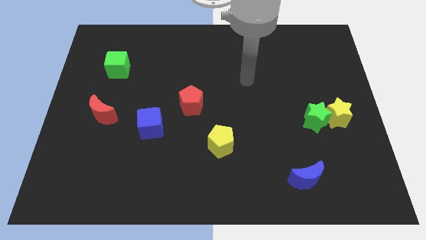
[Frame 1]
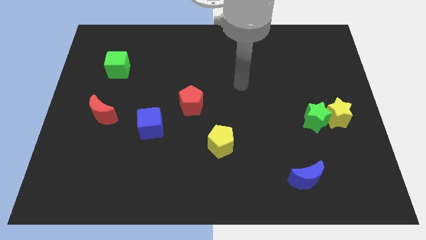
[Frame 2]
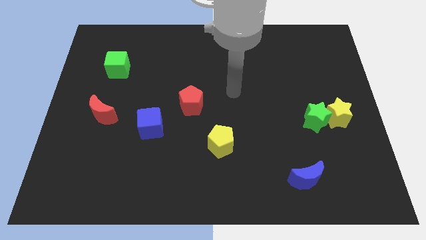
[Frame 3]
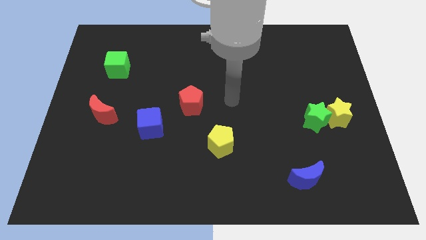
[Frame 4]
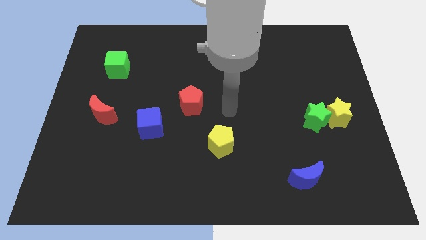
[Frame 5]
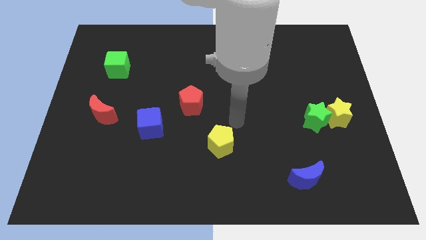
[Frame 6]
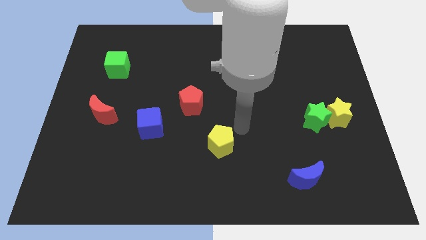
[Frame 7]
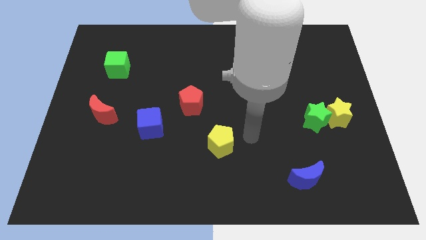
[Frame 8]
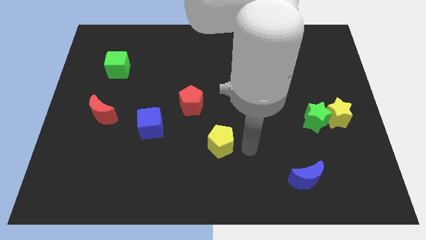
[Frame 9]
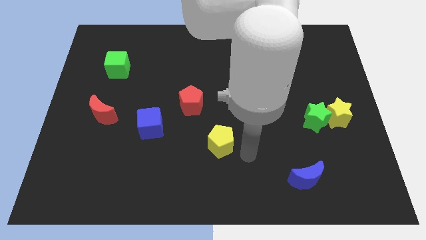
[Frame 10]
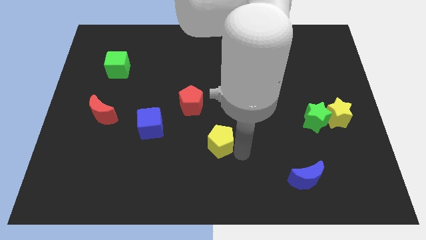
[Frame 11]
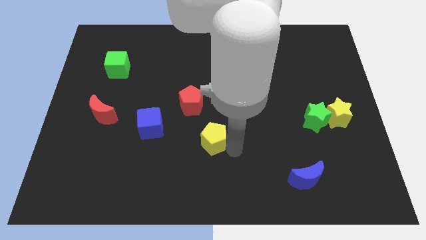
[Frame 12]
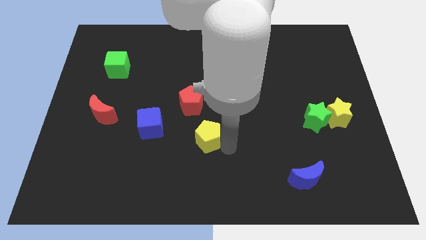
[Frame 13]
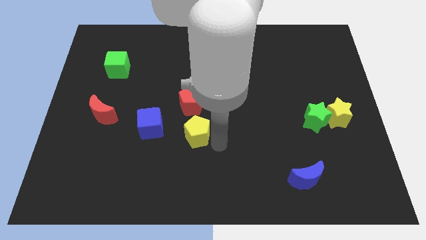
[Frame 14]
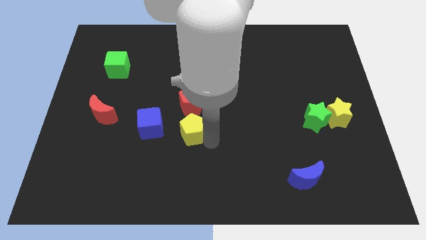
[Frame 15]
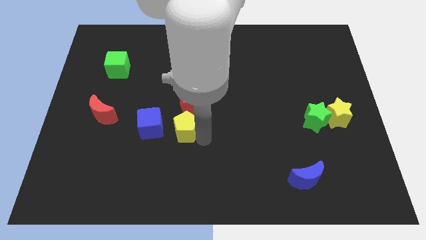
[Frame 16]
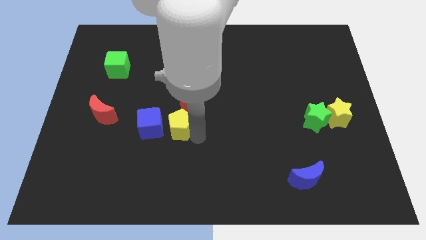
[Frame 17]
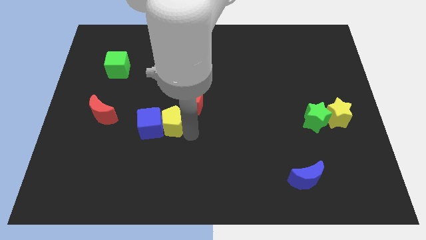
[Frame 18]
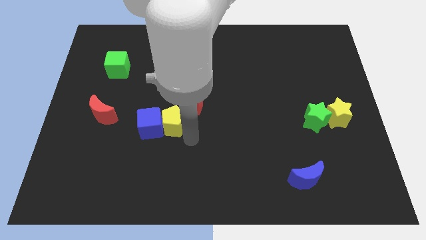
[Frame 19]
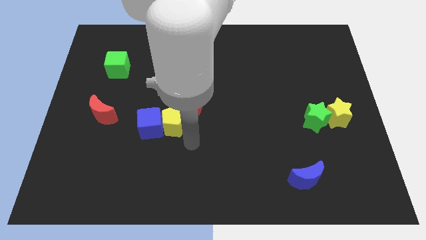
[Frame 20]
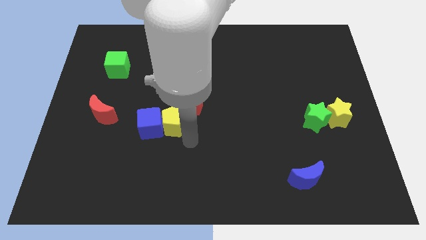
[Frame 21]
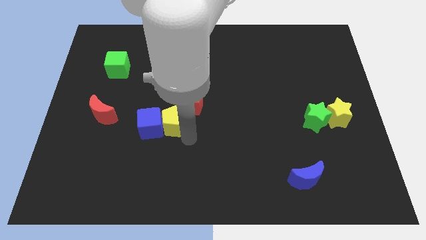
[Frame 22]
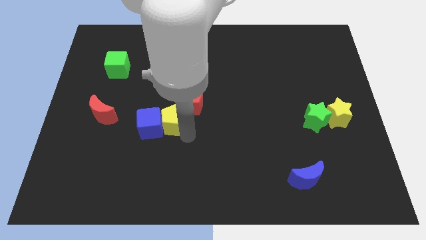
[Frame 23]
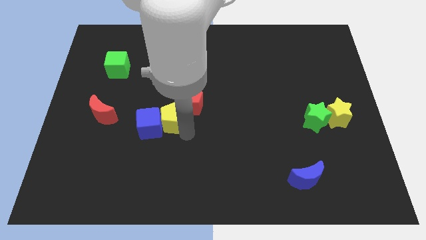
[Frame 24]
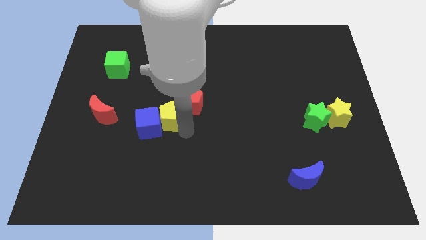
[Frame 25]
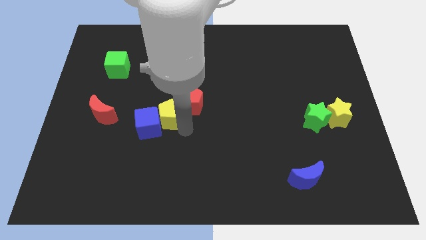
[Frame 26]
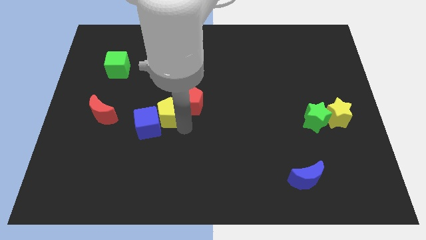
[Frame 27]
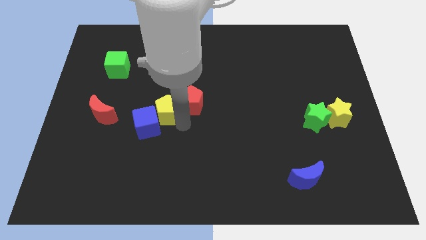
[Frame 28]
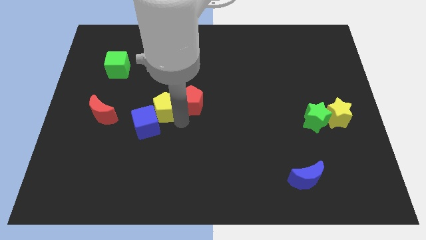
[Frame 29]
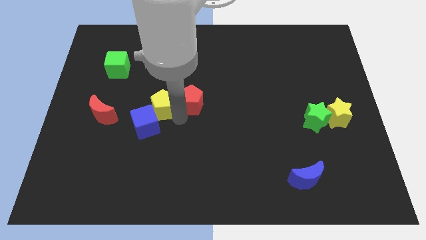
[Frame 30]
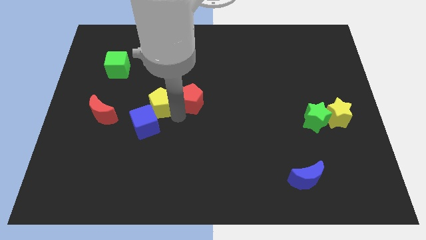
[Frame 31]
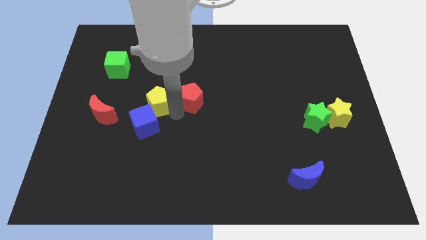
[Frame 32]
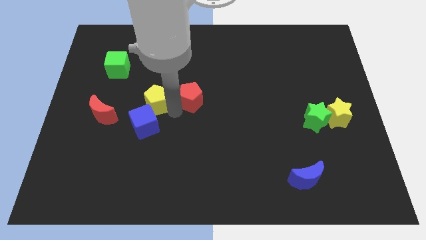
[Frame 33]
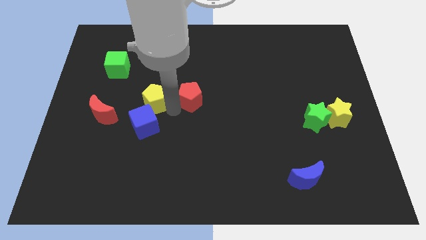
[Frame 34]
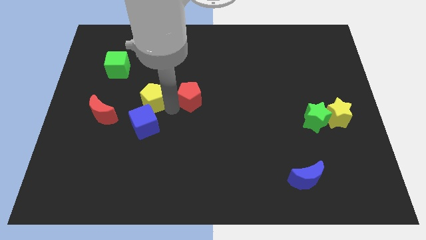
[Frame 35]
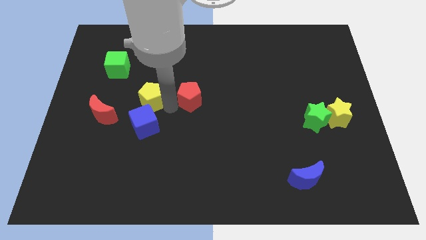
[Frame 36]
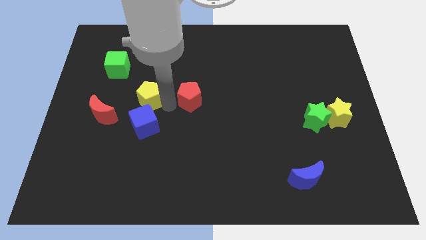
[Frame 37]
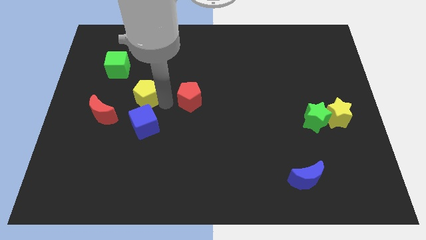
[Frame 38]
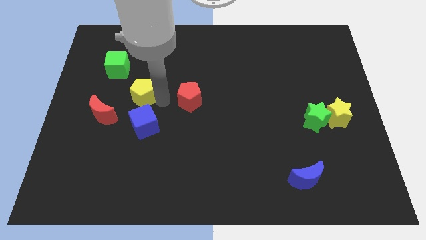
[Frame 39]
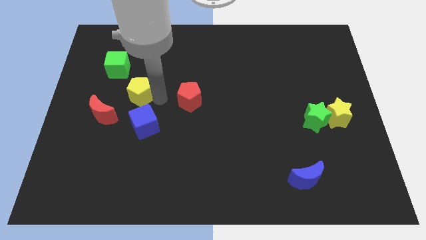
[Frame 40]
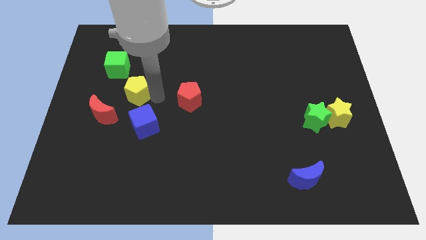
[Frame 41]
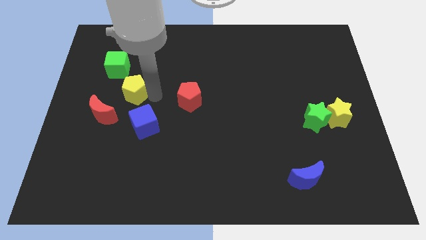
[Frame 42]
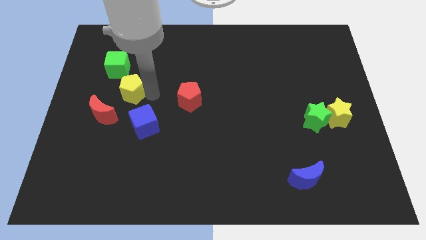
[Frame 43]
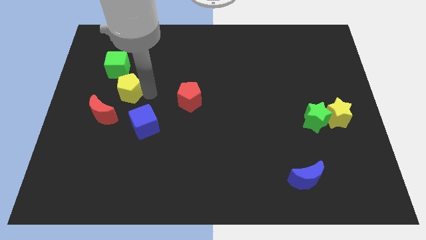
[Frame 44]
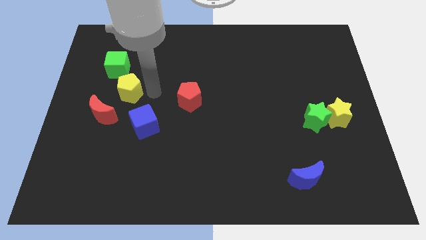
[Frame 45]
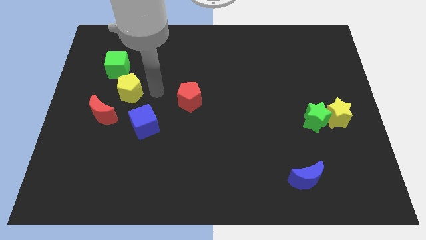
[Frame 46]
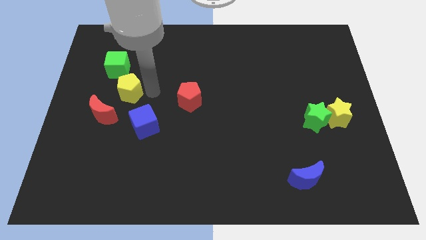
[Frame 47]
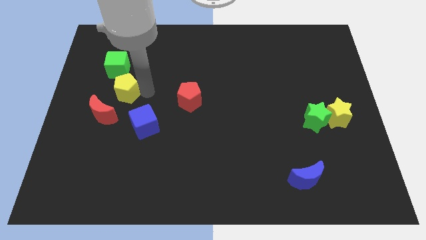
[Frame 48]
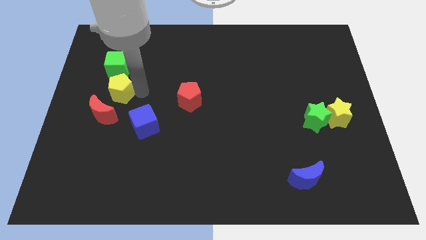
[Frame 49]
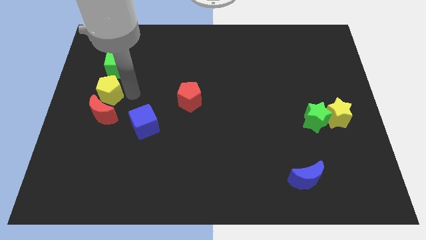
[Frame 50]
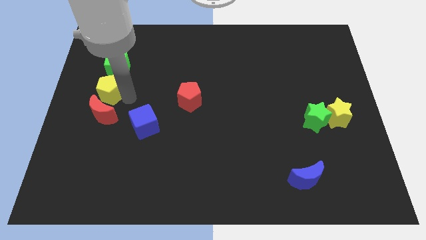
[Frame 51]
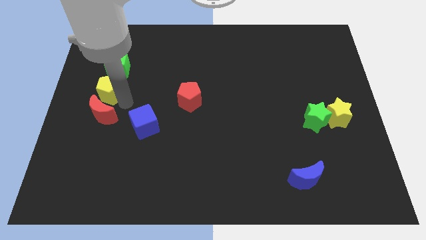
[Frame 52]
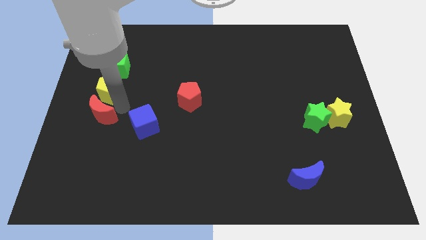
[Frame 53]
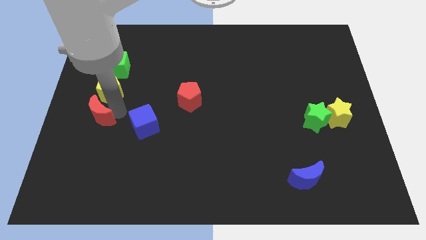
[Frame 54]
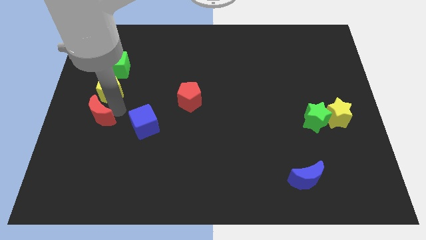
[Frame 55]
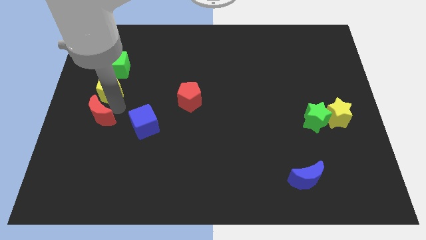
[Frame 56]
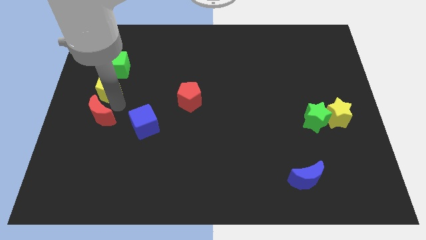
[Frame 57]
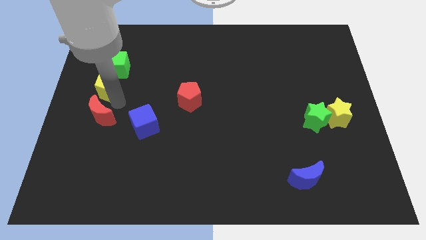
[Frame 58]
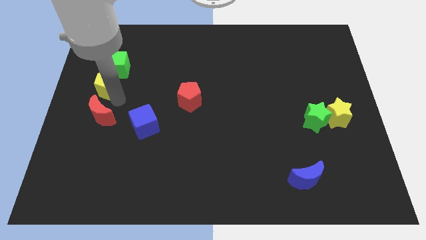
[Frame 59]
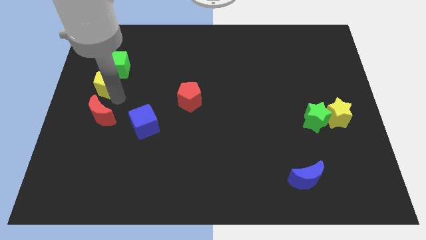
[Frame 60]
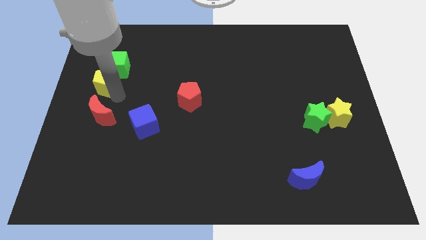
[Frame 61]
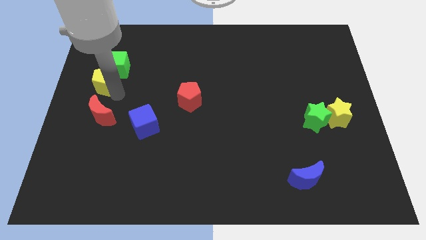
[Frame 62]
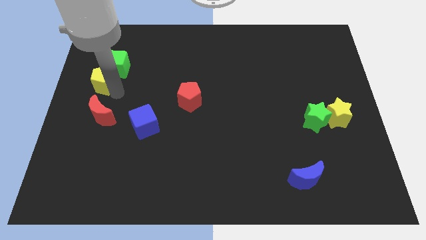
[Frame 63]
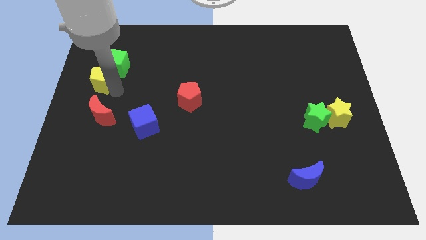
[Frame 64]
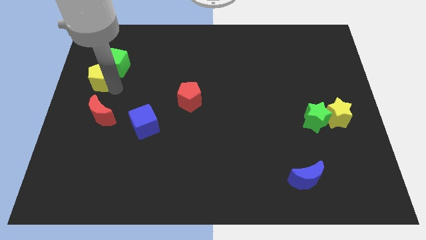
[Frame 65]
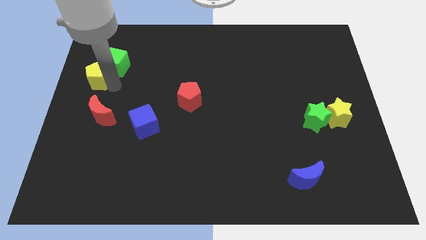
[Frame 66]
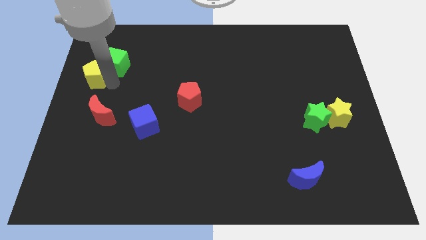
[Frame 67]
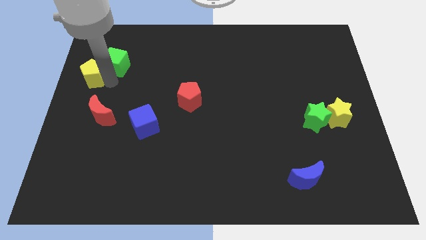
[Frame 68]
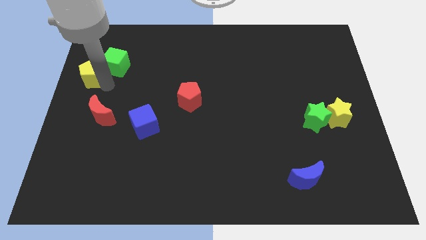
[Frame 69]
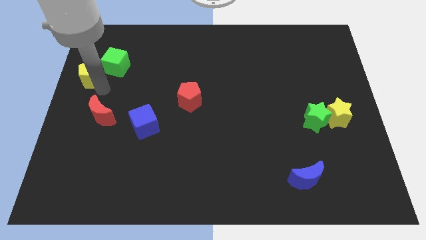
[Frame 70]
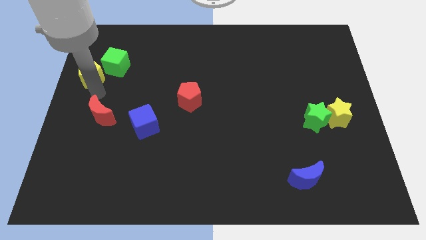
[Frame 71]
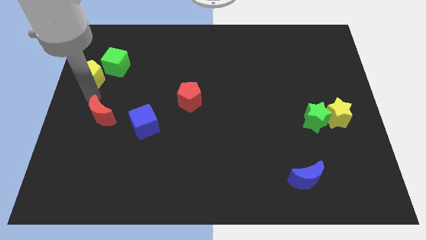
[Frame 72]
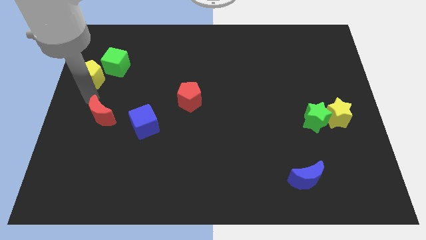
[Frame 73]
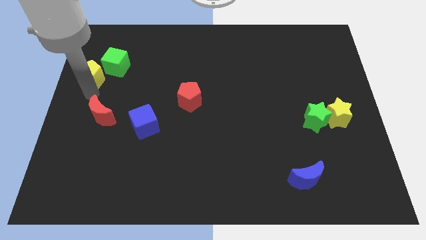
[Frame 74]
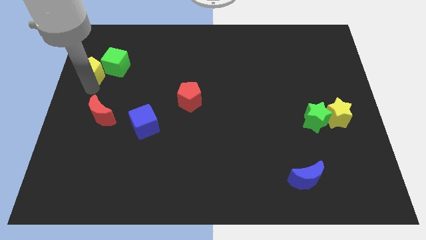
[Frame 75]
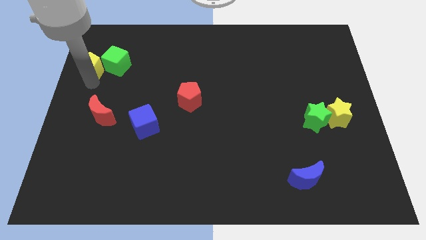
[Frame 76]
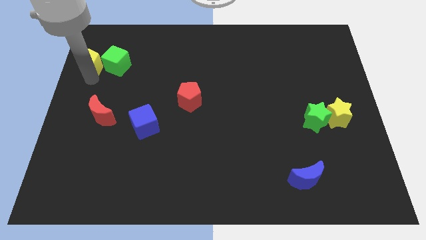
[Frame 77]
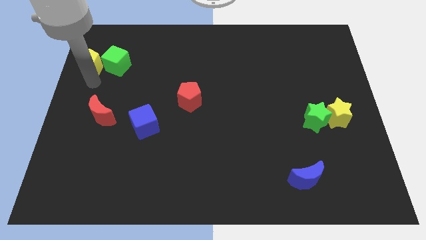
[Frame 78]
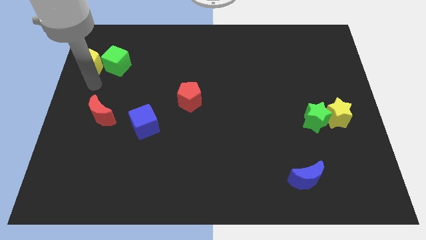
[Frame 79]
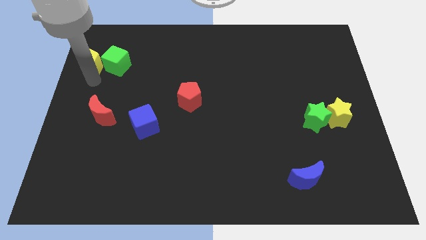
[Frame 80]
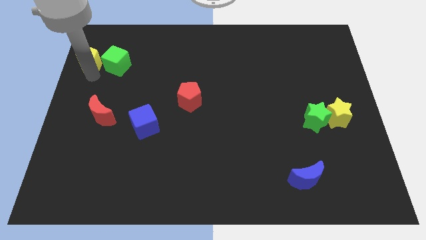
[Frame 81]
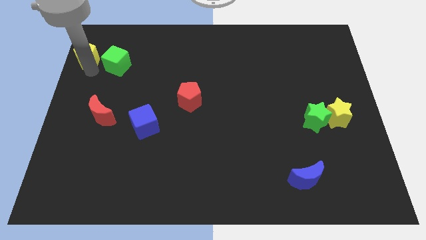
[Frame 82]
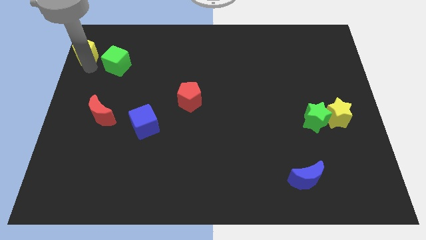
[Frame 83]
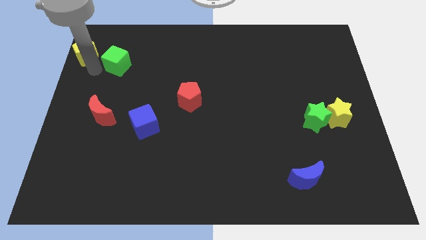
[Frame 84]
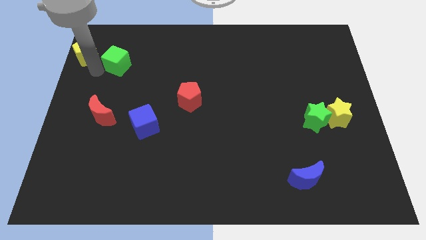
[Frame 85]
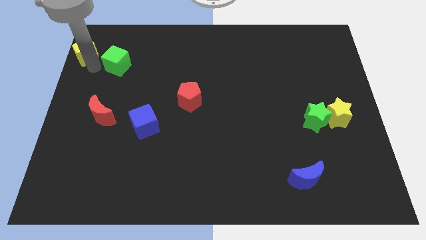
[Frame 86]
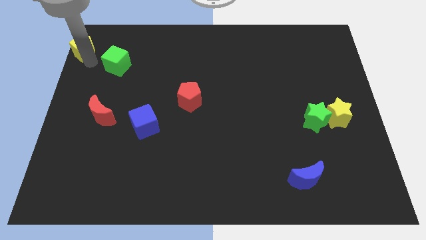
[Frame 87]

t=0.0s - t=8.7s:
move the yellow pentagon to the top left corner
